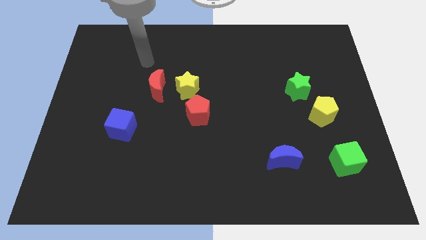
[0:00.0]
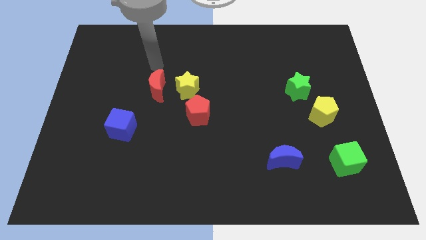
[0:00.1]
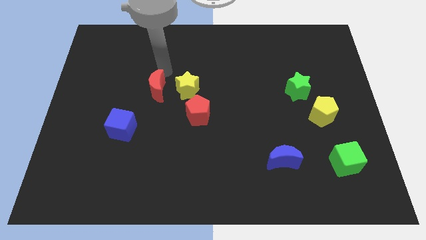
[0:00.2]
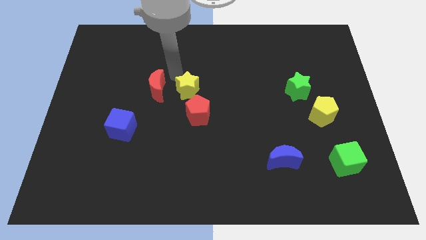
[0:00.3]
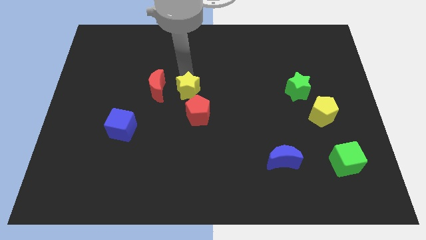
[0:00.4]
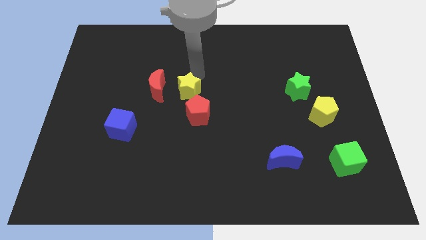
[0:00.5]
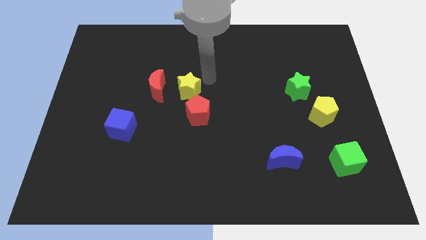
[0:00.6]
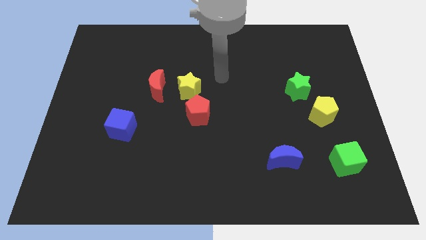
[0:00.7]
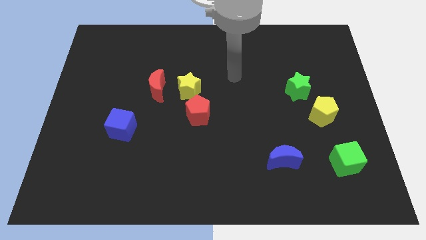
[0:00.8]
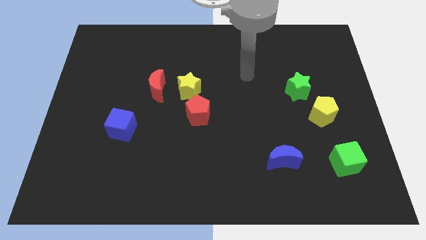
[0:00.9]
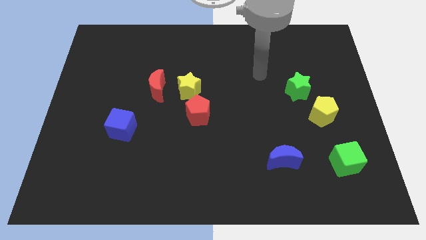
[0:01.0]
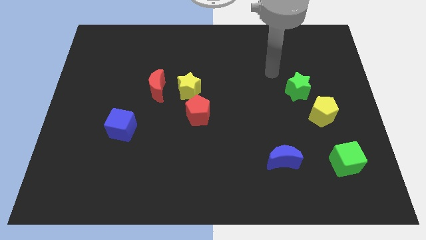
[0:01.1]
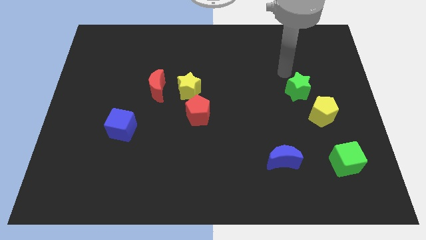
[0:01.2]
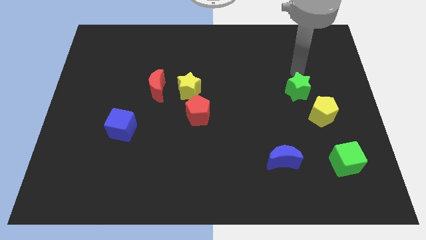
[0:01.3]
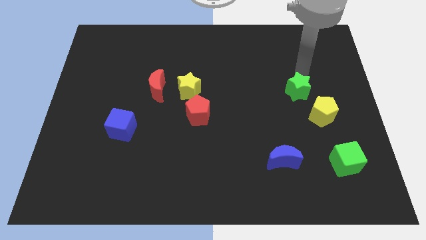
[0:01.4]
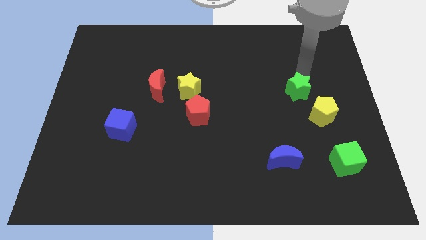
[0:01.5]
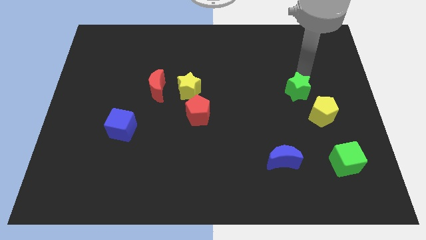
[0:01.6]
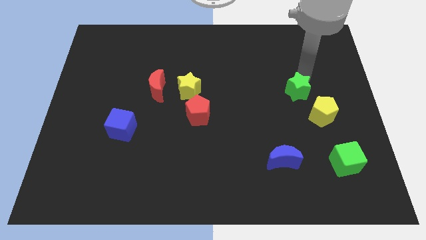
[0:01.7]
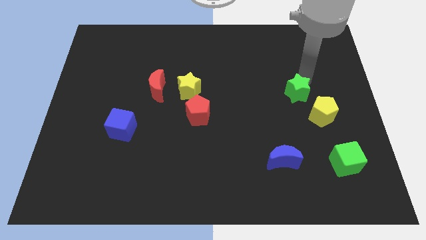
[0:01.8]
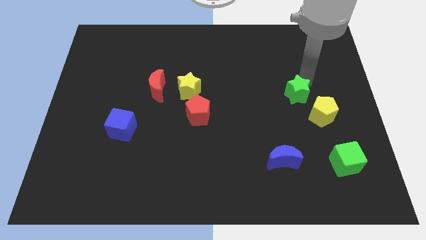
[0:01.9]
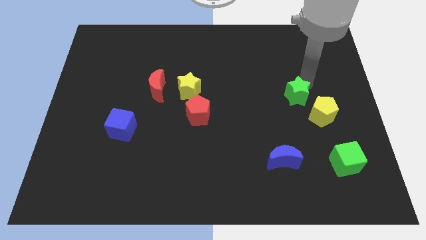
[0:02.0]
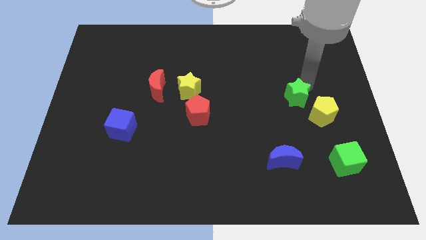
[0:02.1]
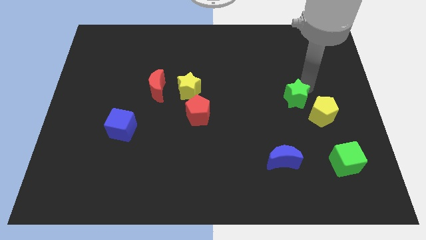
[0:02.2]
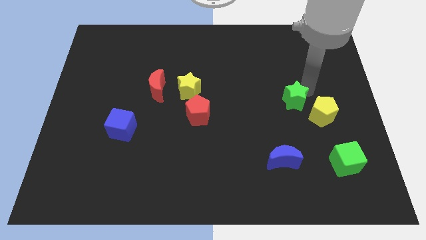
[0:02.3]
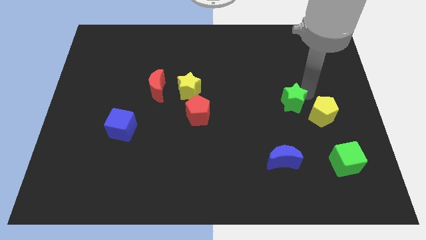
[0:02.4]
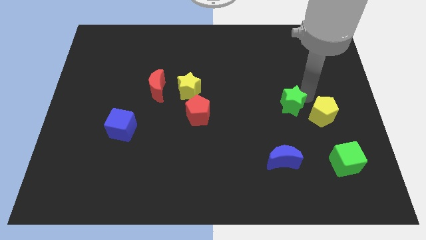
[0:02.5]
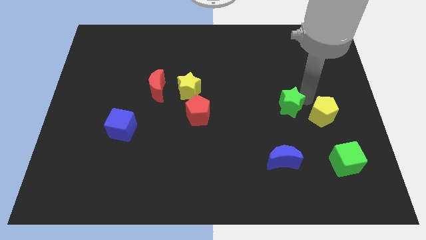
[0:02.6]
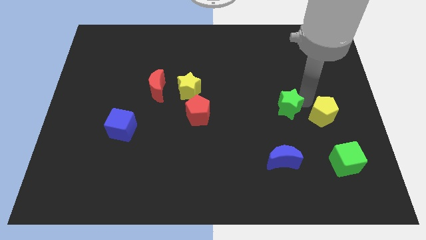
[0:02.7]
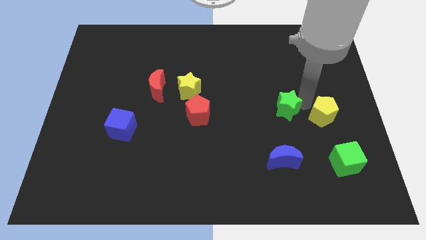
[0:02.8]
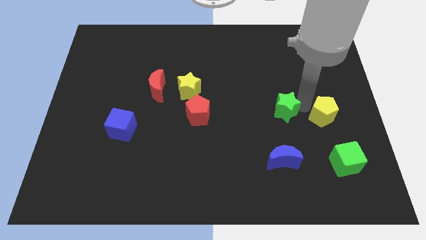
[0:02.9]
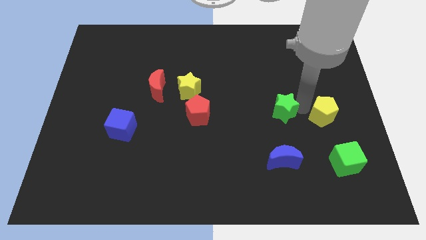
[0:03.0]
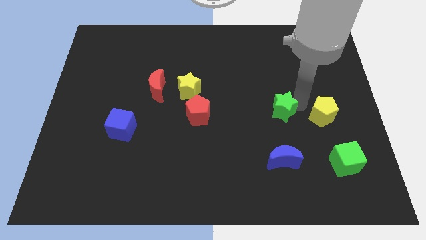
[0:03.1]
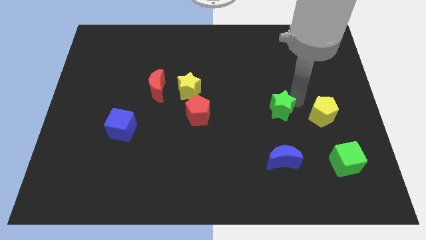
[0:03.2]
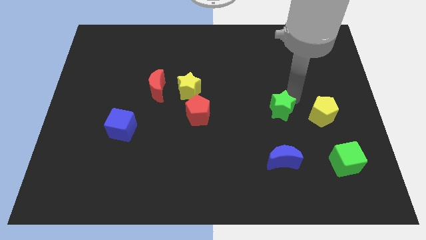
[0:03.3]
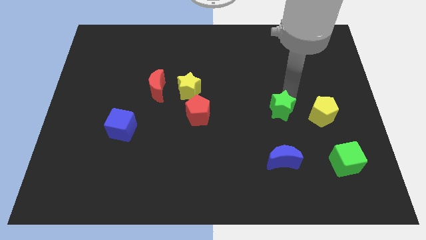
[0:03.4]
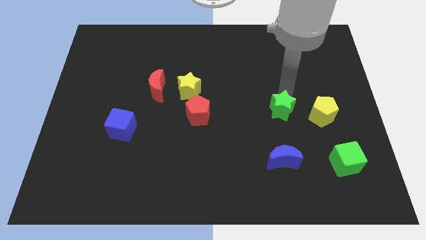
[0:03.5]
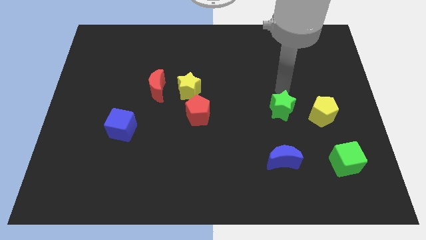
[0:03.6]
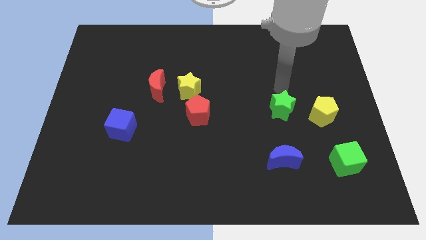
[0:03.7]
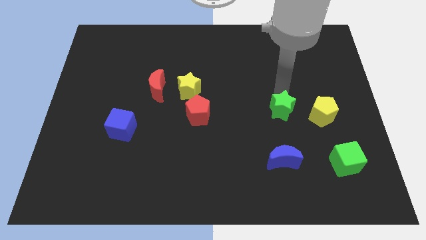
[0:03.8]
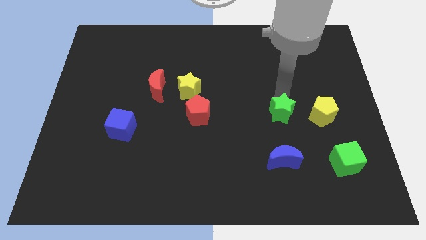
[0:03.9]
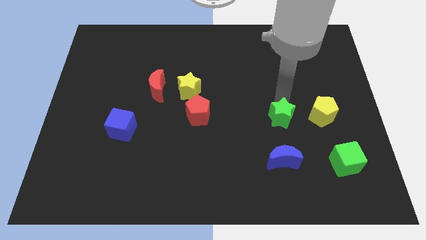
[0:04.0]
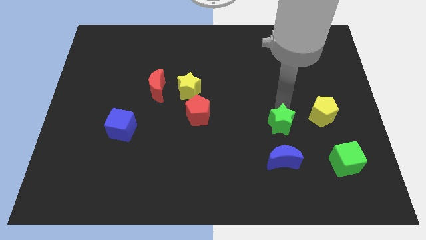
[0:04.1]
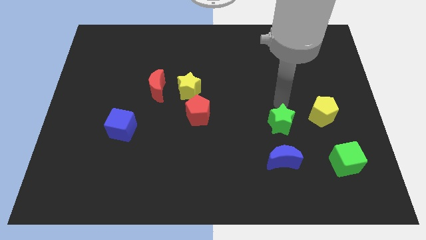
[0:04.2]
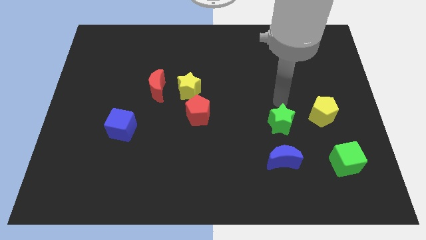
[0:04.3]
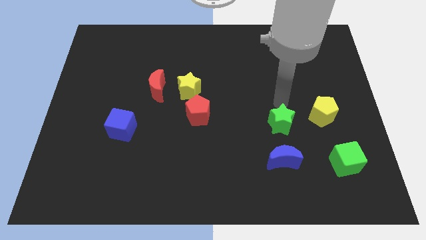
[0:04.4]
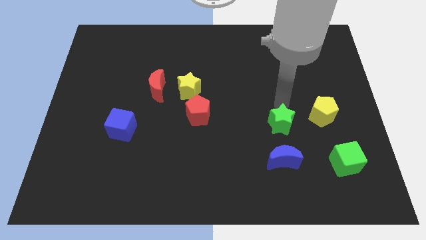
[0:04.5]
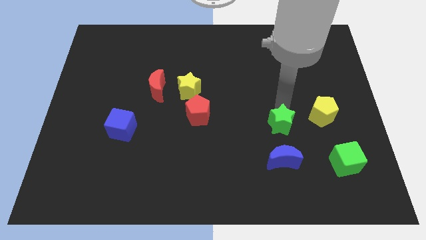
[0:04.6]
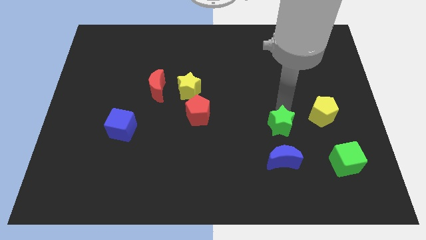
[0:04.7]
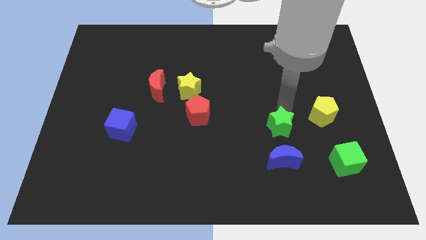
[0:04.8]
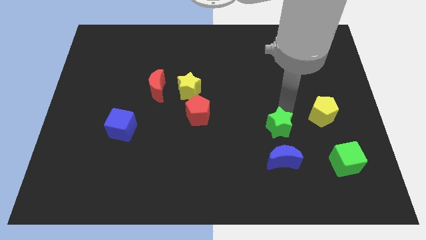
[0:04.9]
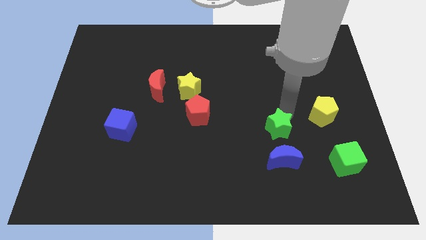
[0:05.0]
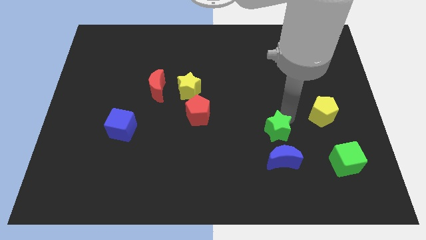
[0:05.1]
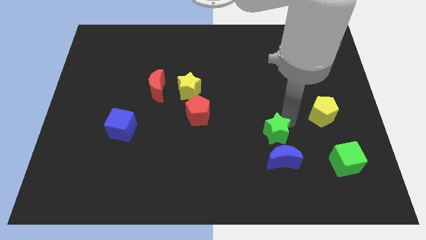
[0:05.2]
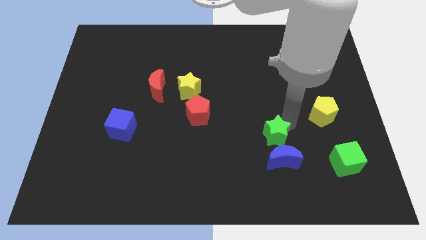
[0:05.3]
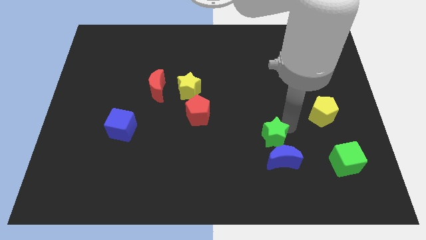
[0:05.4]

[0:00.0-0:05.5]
move the green star next to the blue moon

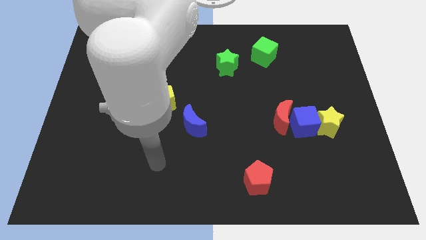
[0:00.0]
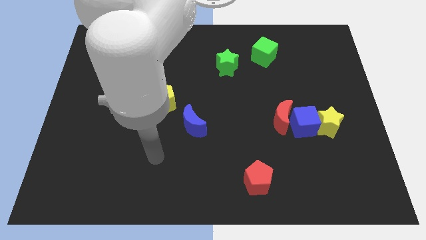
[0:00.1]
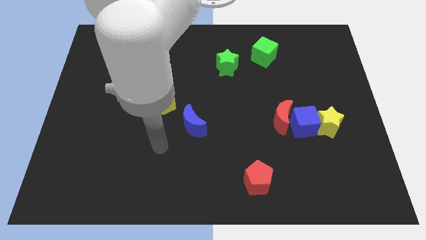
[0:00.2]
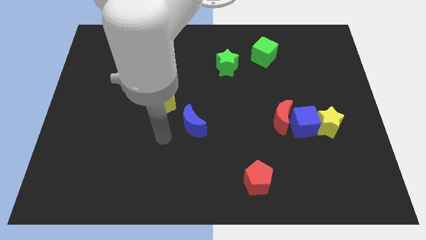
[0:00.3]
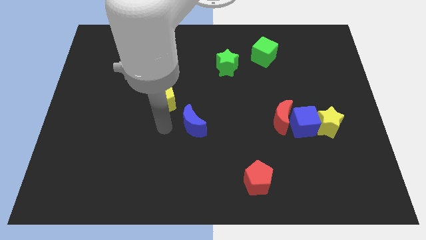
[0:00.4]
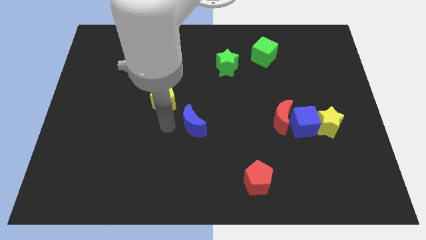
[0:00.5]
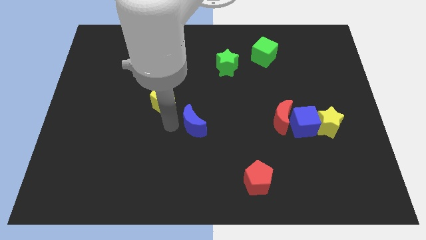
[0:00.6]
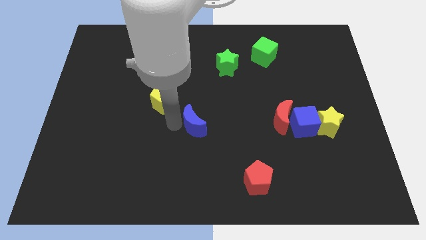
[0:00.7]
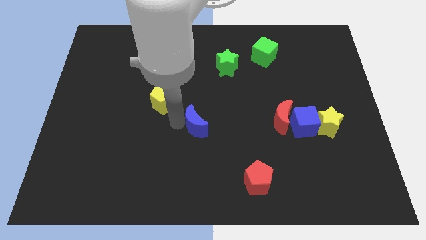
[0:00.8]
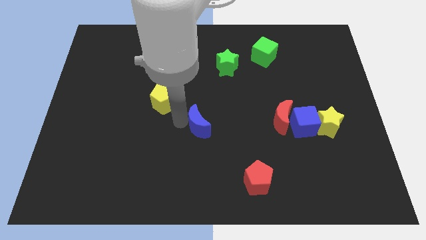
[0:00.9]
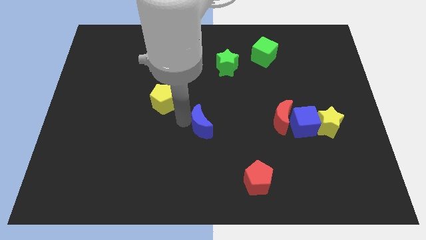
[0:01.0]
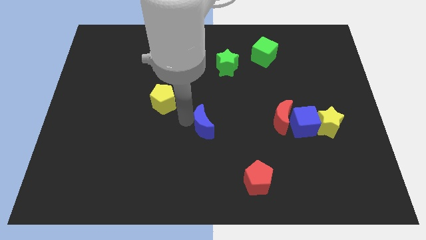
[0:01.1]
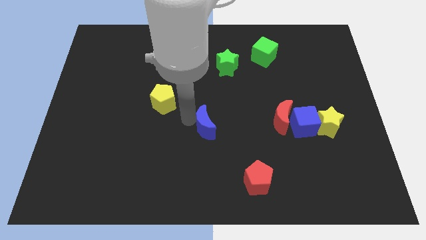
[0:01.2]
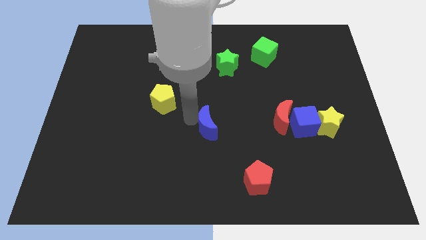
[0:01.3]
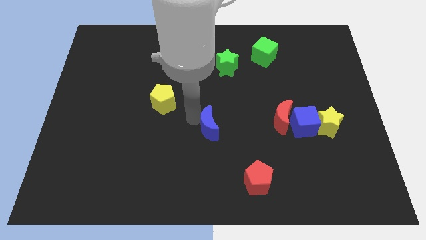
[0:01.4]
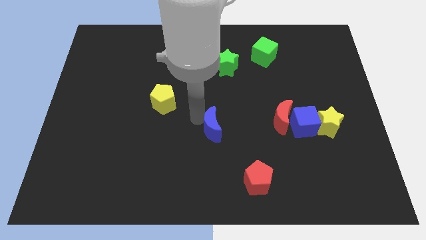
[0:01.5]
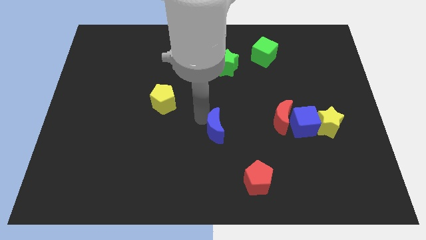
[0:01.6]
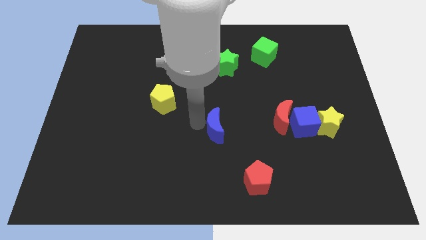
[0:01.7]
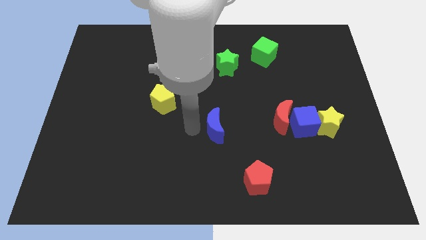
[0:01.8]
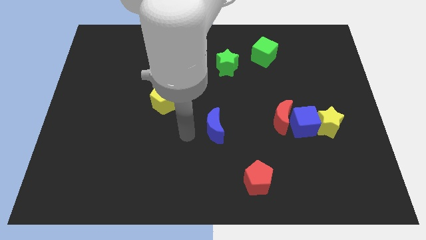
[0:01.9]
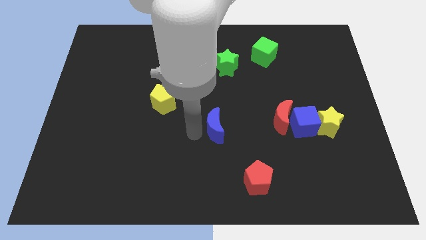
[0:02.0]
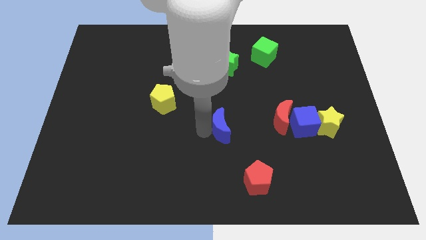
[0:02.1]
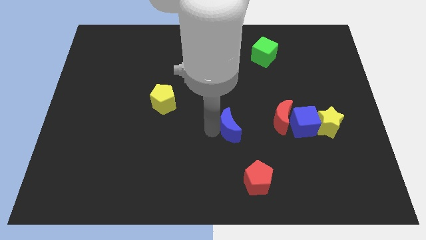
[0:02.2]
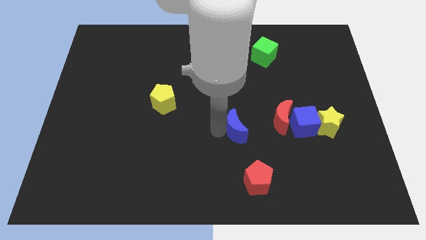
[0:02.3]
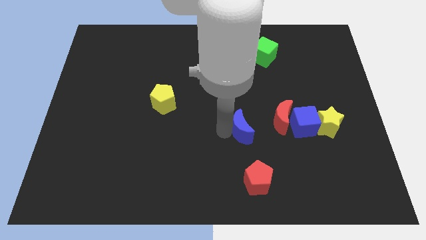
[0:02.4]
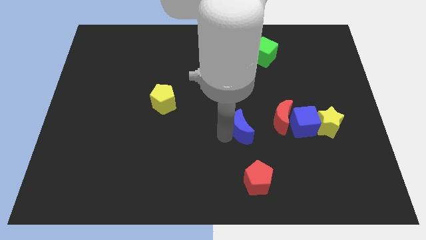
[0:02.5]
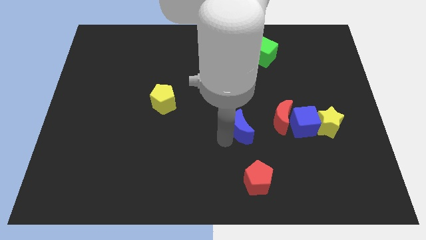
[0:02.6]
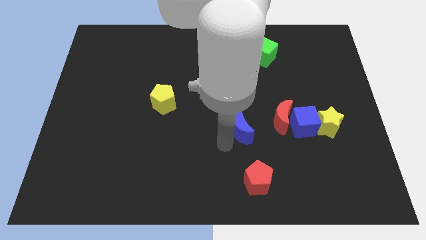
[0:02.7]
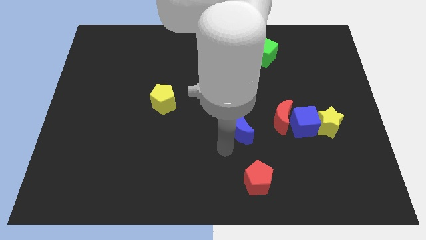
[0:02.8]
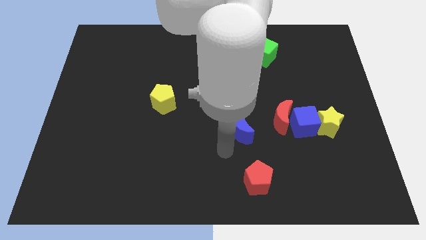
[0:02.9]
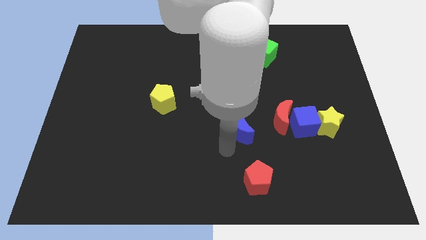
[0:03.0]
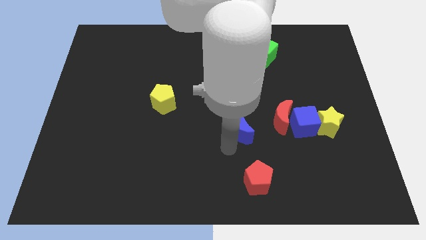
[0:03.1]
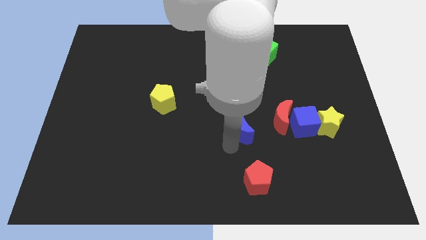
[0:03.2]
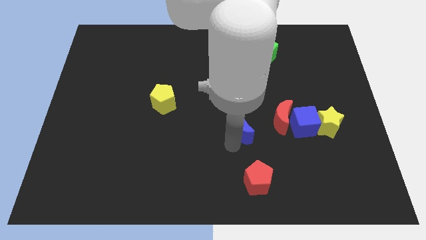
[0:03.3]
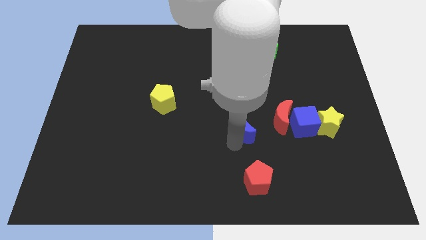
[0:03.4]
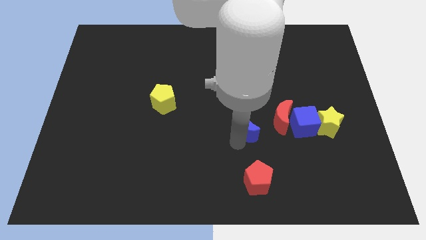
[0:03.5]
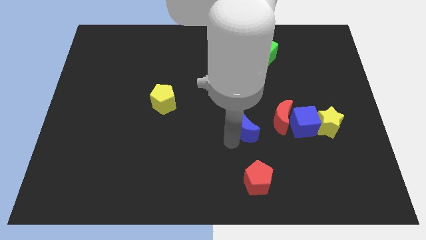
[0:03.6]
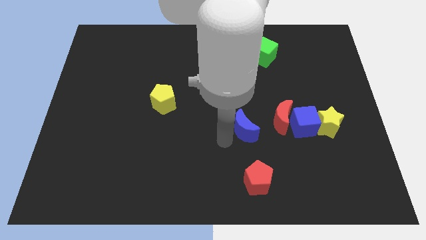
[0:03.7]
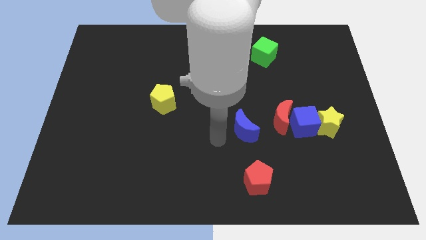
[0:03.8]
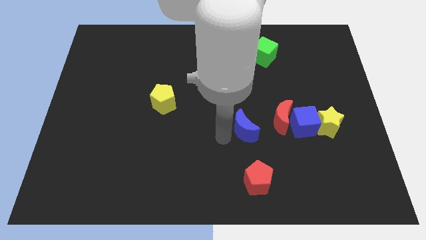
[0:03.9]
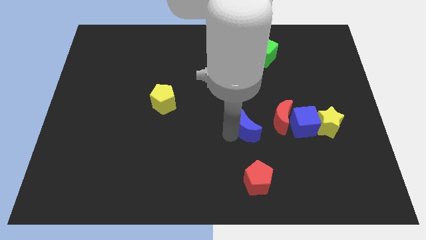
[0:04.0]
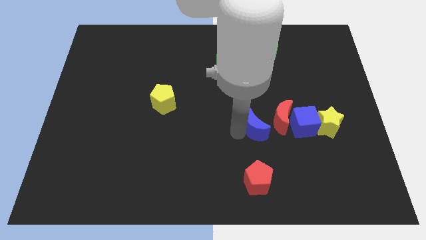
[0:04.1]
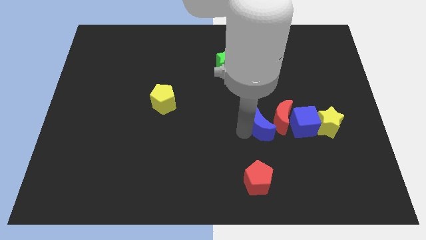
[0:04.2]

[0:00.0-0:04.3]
push the blue moon to the red moon
